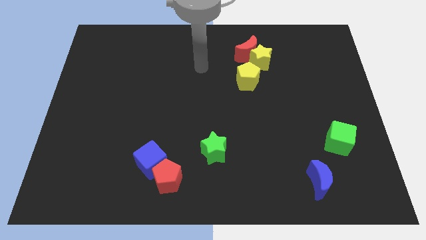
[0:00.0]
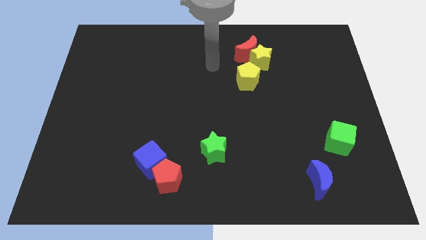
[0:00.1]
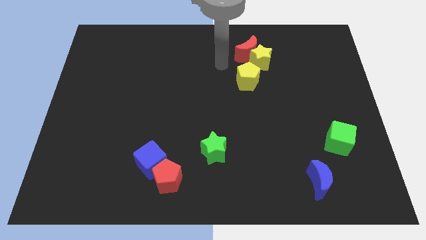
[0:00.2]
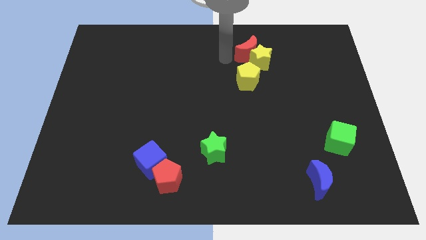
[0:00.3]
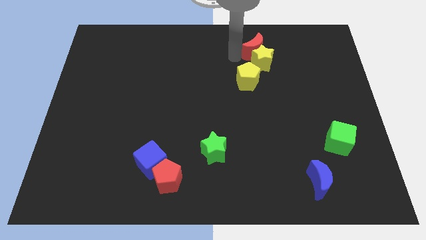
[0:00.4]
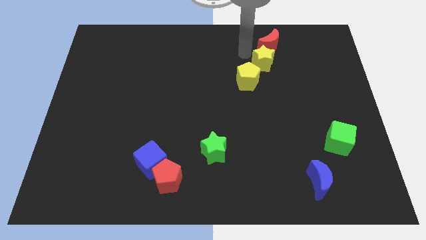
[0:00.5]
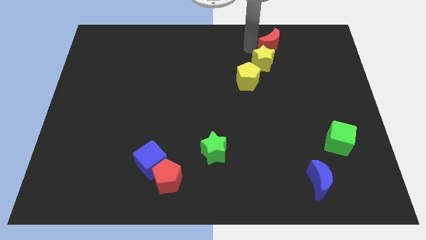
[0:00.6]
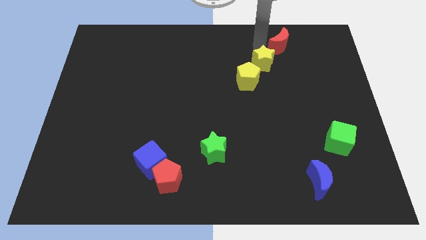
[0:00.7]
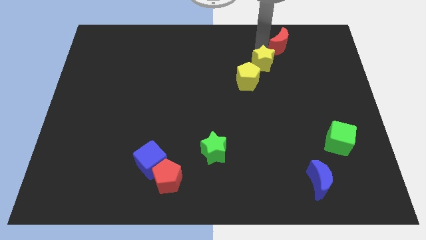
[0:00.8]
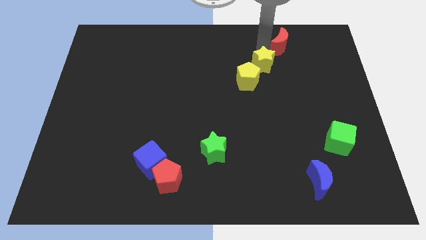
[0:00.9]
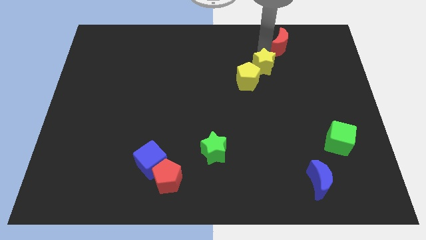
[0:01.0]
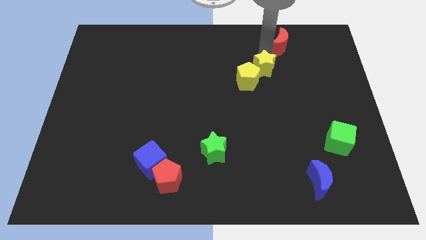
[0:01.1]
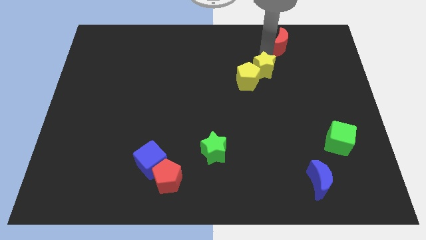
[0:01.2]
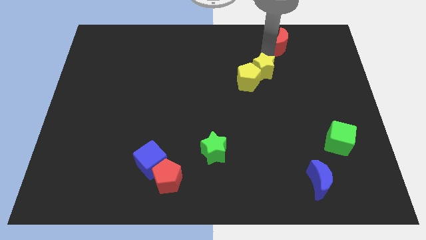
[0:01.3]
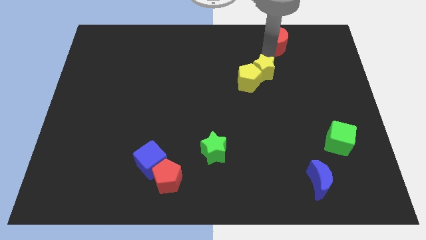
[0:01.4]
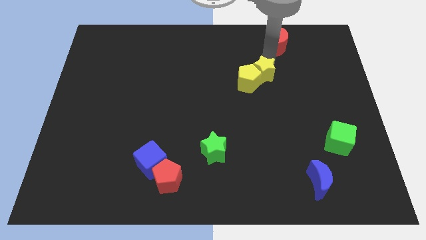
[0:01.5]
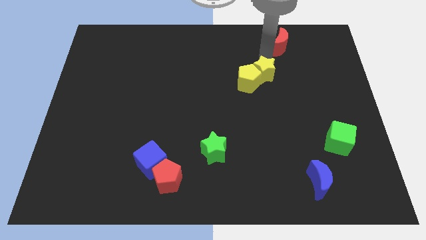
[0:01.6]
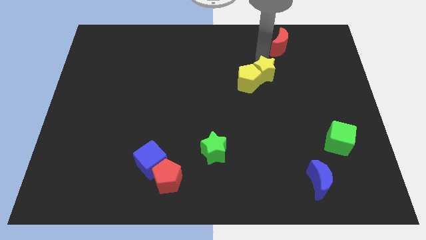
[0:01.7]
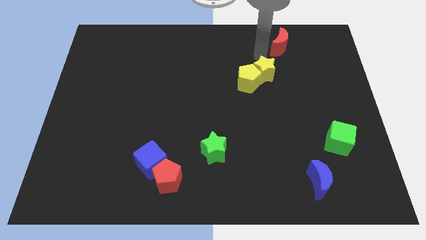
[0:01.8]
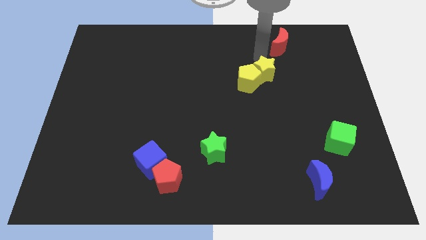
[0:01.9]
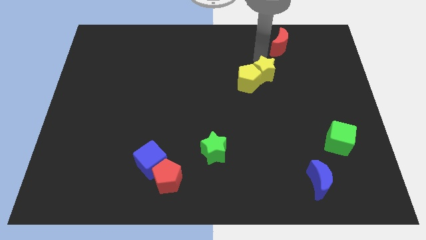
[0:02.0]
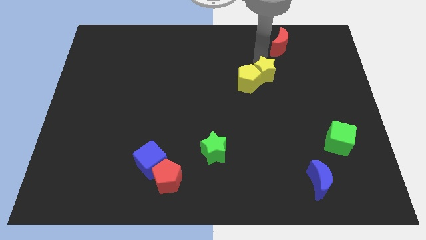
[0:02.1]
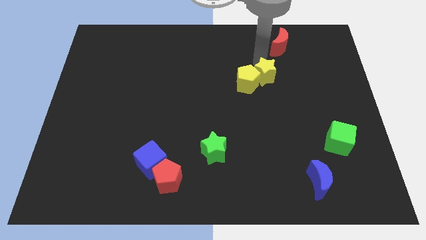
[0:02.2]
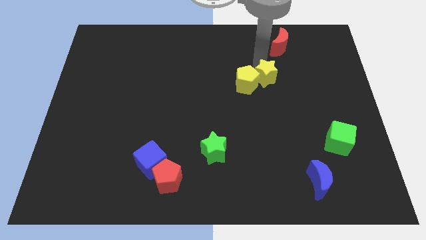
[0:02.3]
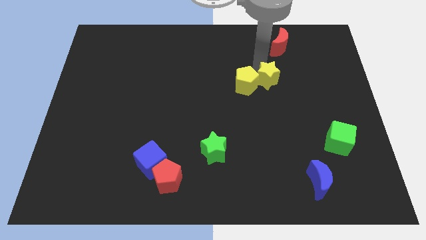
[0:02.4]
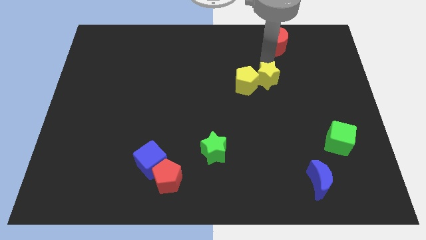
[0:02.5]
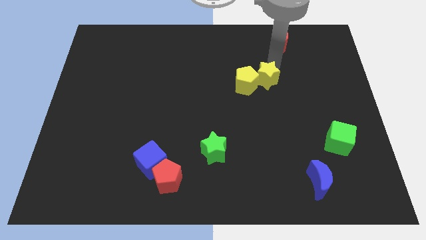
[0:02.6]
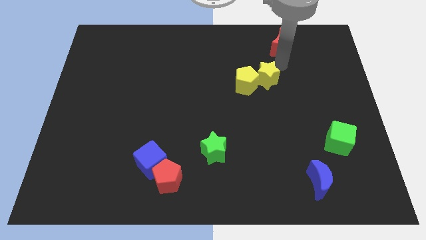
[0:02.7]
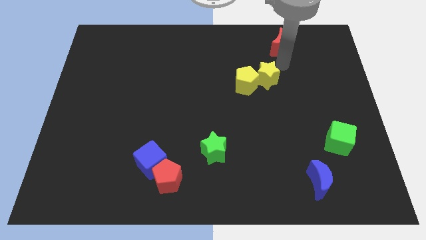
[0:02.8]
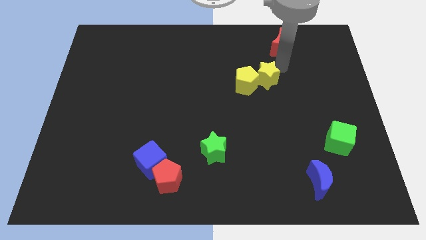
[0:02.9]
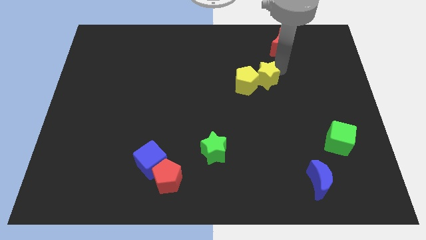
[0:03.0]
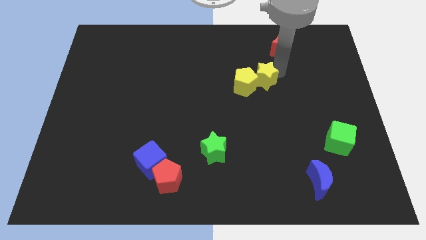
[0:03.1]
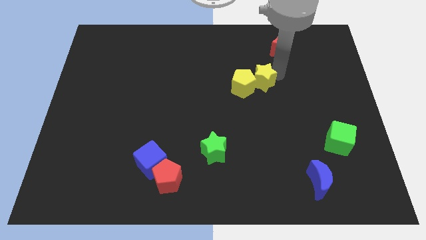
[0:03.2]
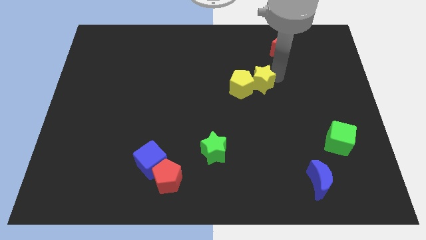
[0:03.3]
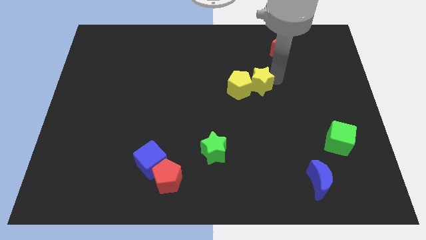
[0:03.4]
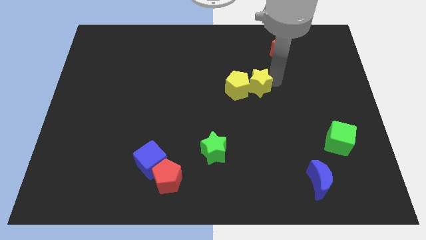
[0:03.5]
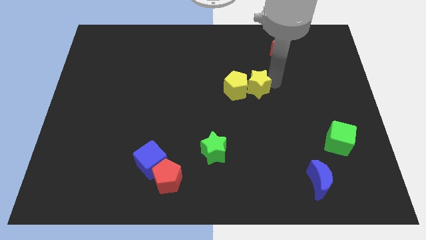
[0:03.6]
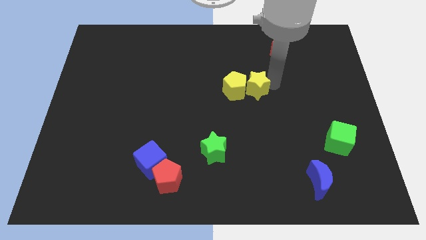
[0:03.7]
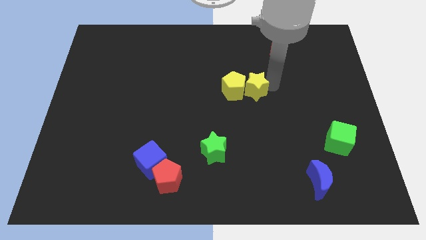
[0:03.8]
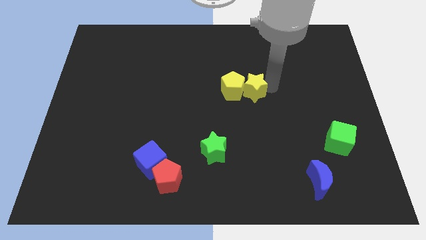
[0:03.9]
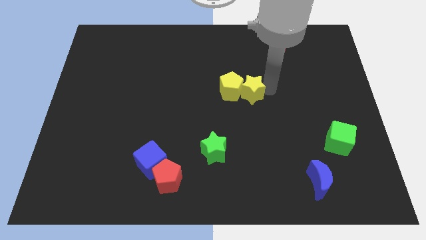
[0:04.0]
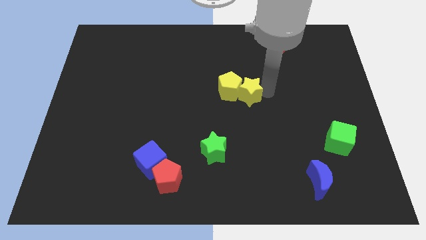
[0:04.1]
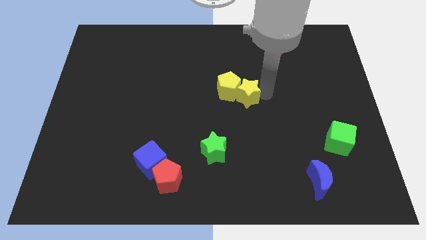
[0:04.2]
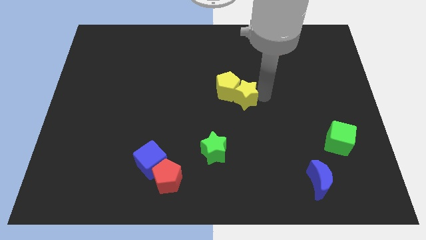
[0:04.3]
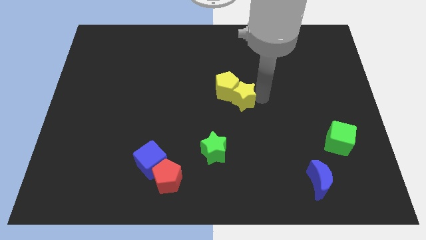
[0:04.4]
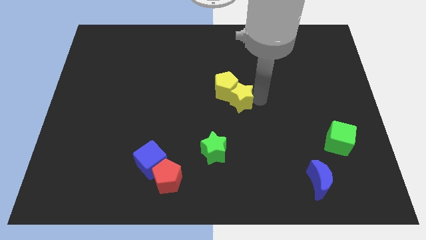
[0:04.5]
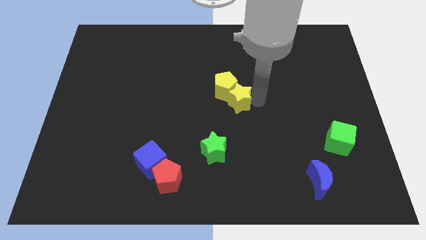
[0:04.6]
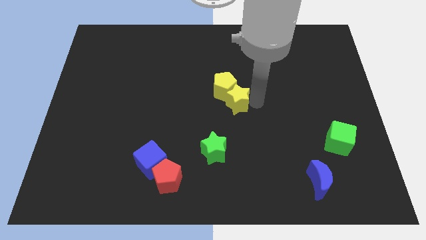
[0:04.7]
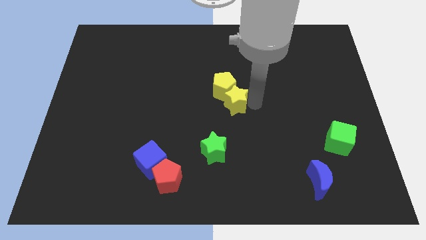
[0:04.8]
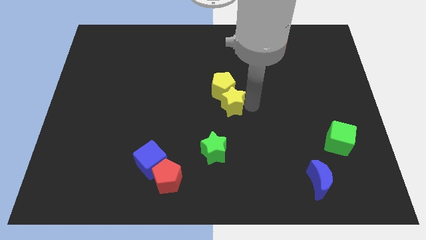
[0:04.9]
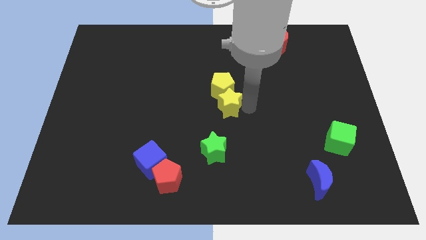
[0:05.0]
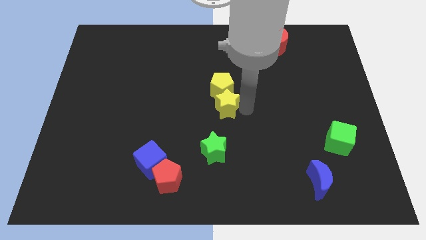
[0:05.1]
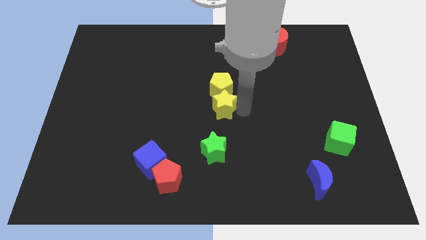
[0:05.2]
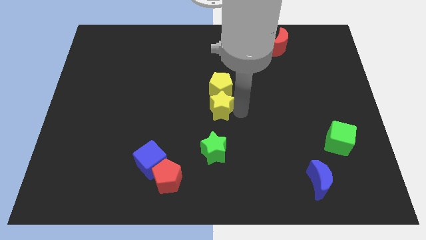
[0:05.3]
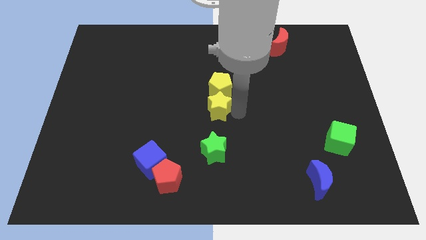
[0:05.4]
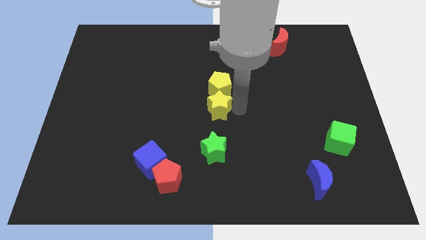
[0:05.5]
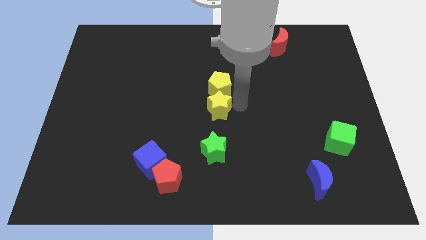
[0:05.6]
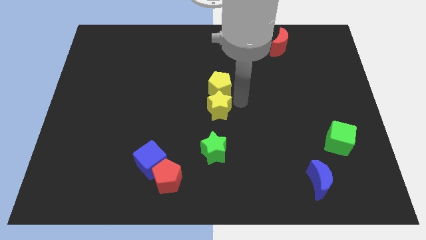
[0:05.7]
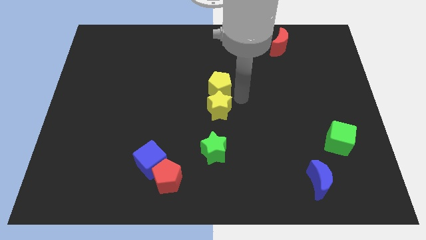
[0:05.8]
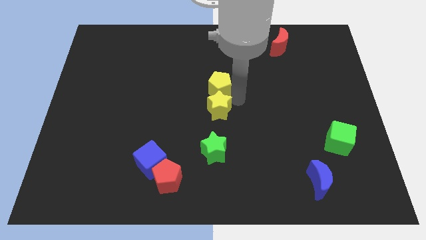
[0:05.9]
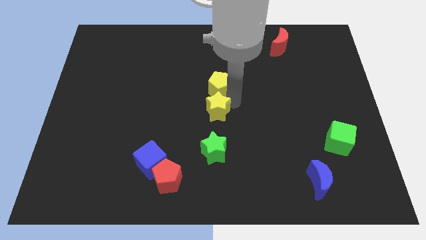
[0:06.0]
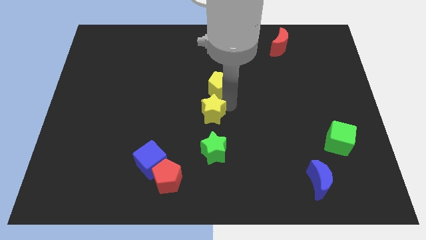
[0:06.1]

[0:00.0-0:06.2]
push the yellow star downwards and then left

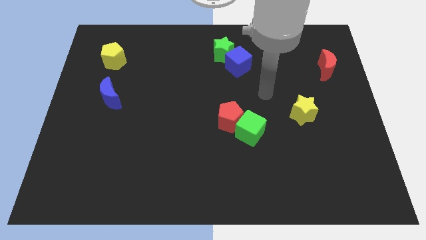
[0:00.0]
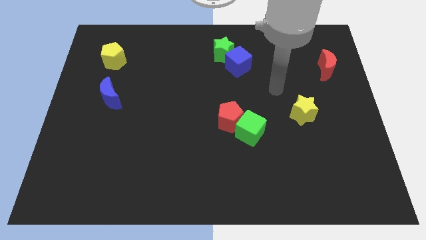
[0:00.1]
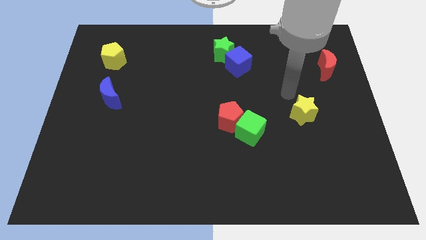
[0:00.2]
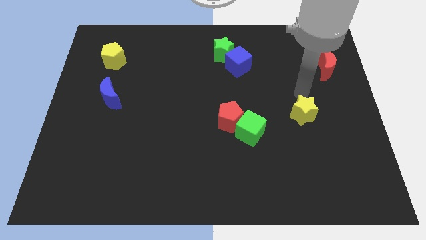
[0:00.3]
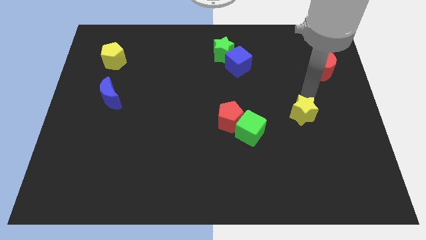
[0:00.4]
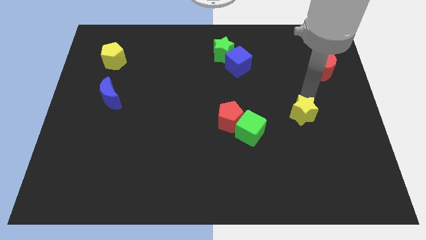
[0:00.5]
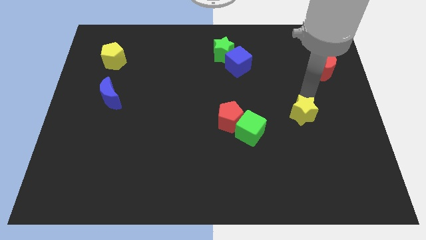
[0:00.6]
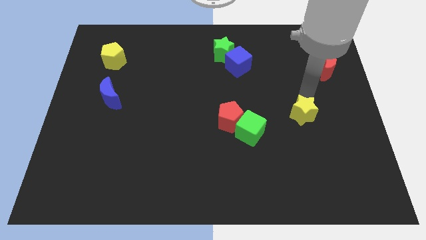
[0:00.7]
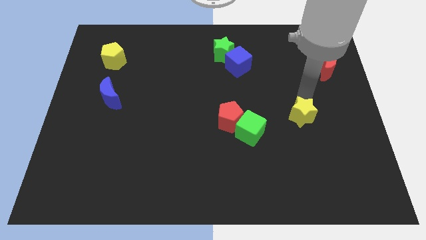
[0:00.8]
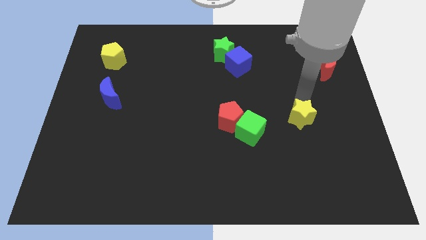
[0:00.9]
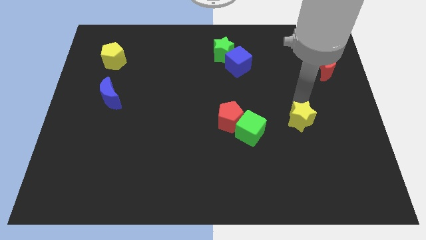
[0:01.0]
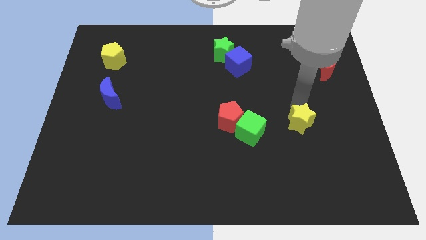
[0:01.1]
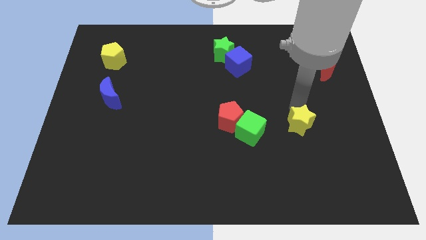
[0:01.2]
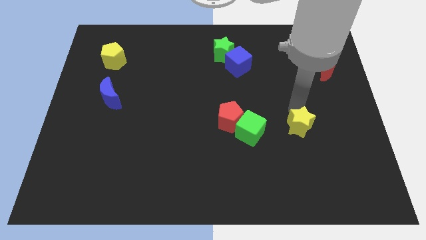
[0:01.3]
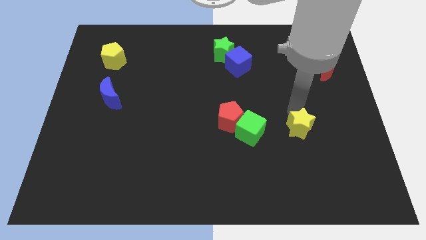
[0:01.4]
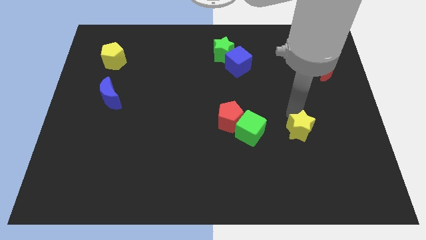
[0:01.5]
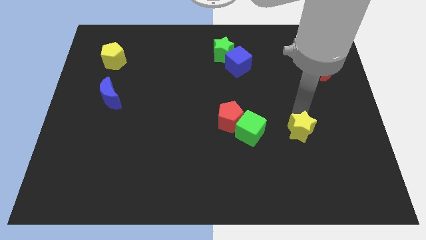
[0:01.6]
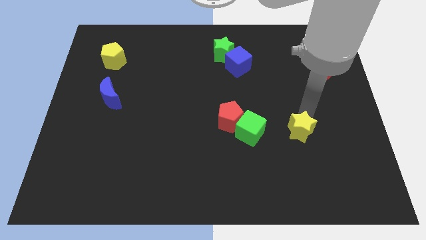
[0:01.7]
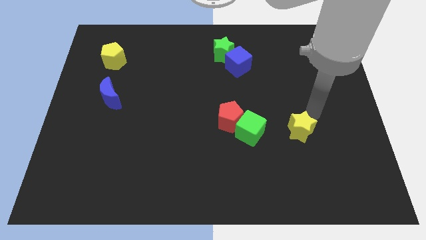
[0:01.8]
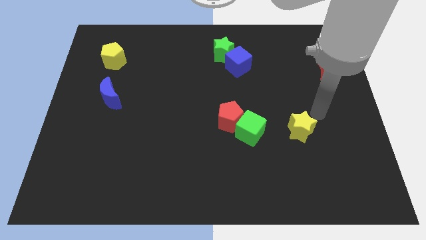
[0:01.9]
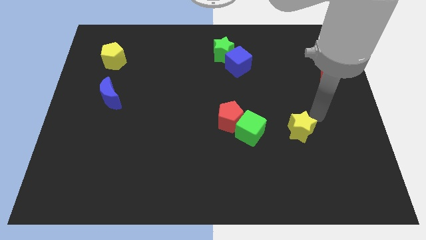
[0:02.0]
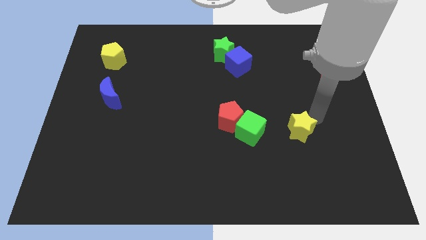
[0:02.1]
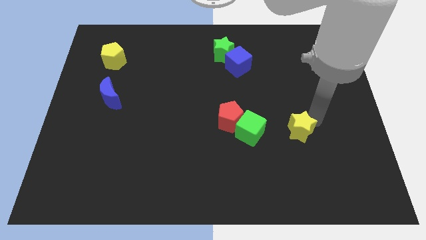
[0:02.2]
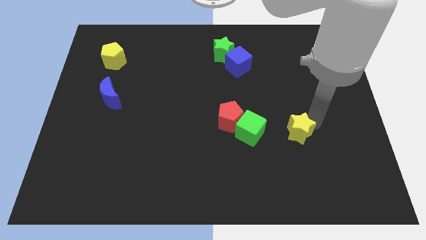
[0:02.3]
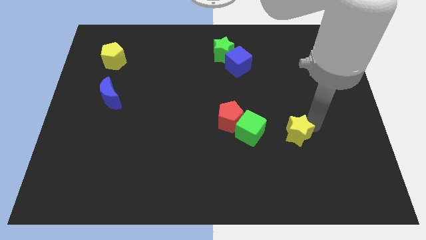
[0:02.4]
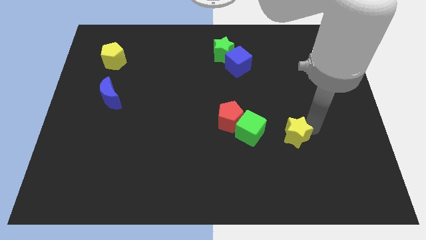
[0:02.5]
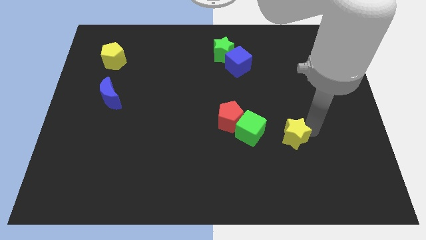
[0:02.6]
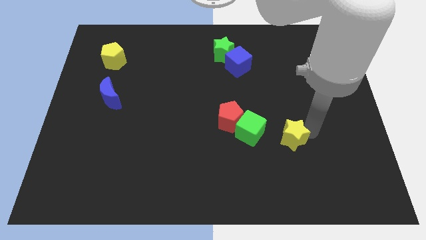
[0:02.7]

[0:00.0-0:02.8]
move the yellow star downwards and left a little
